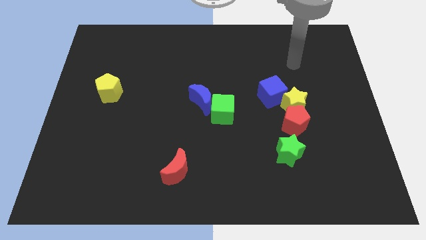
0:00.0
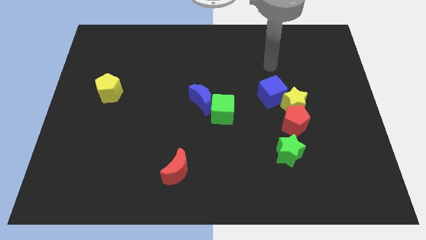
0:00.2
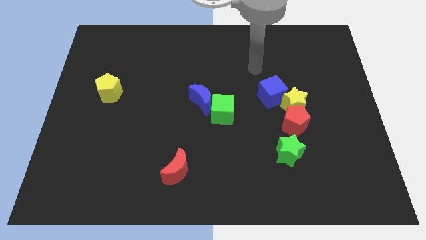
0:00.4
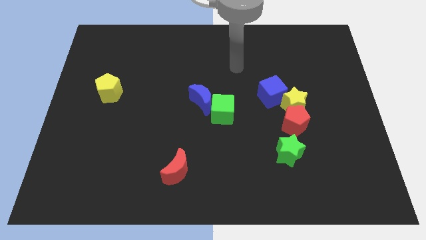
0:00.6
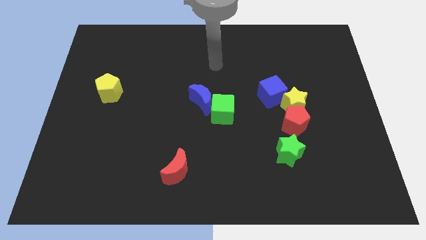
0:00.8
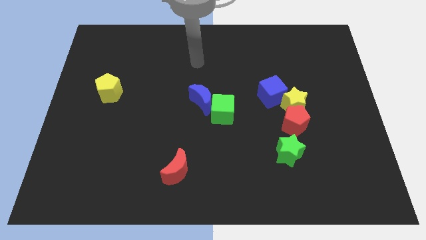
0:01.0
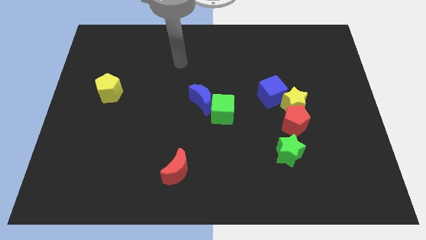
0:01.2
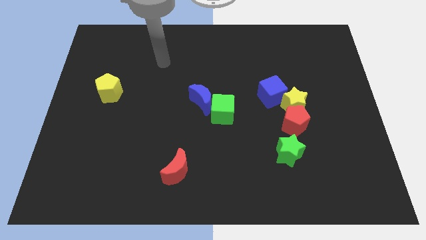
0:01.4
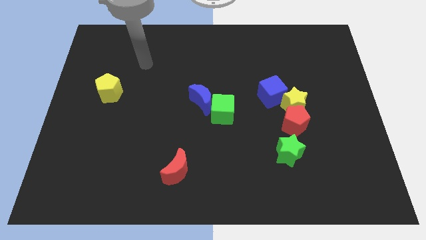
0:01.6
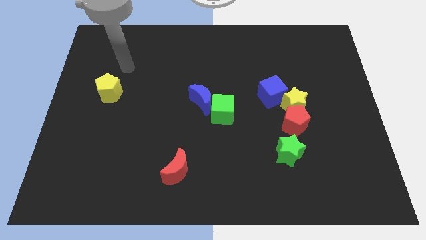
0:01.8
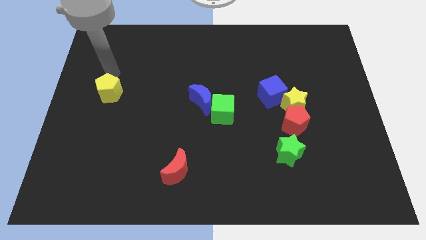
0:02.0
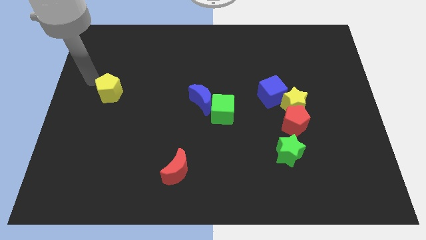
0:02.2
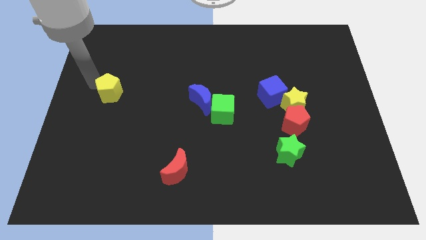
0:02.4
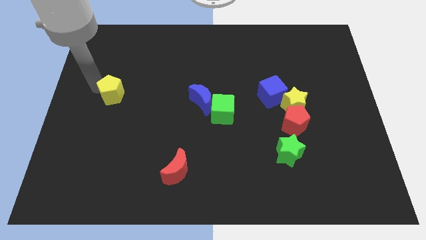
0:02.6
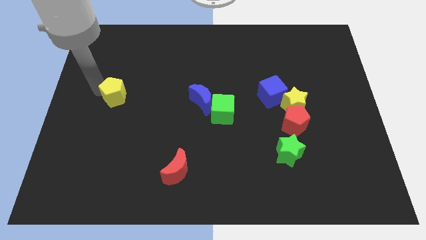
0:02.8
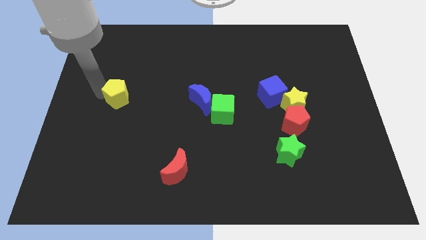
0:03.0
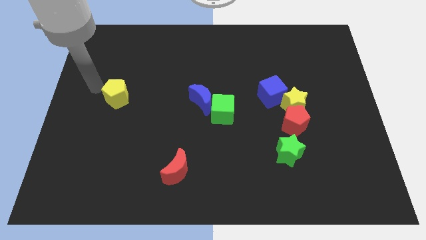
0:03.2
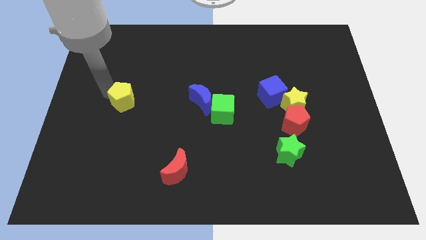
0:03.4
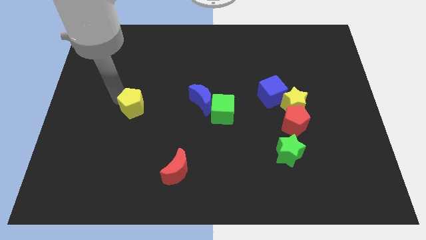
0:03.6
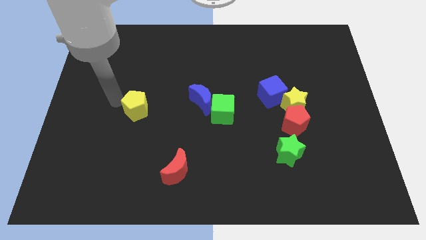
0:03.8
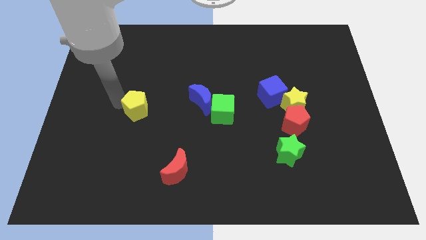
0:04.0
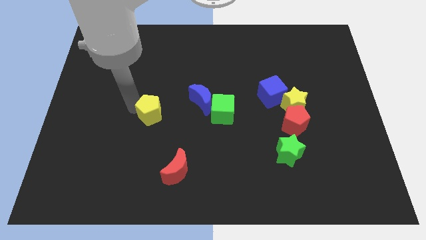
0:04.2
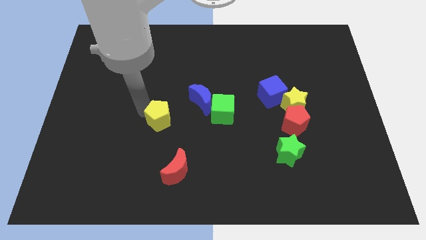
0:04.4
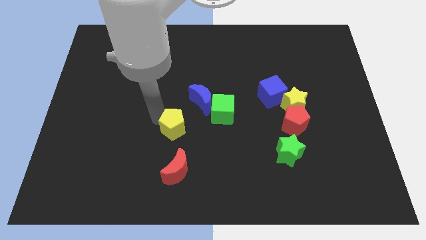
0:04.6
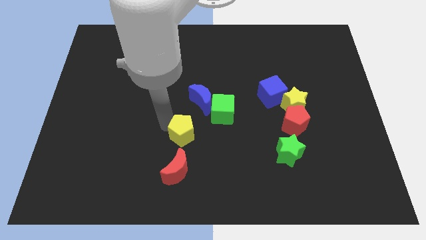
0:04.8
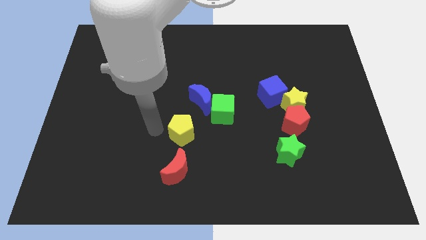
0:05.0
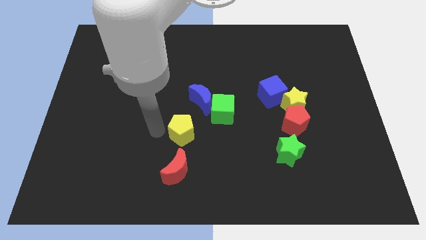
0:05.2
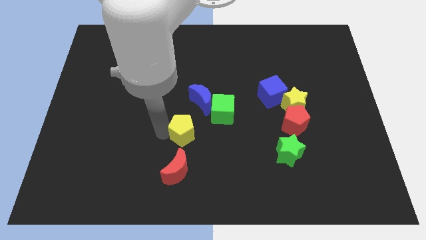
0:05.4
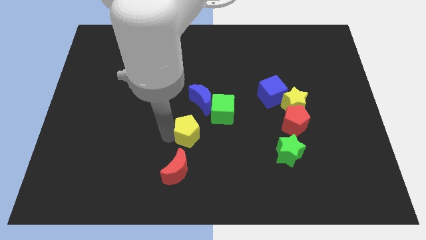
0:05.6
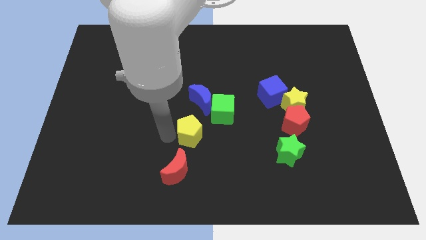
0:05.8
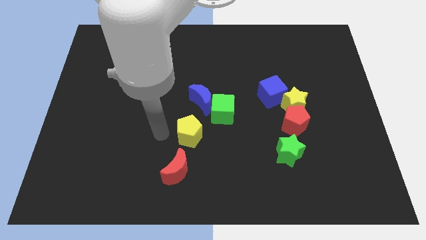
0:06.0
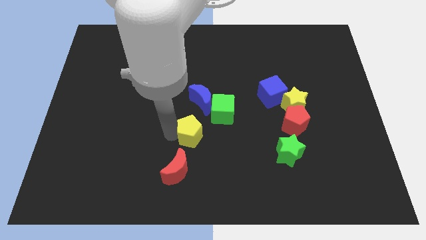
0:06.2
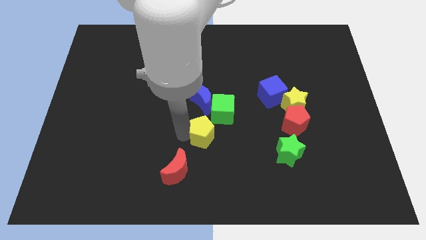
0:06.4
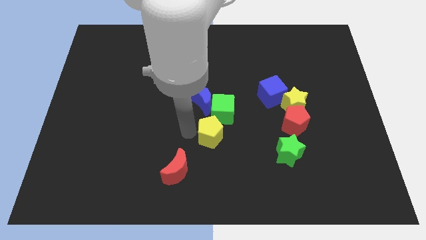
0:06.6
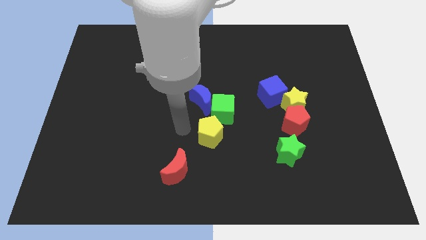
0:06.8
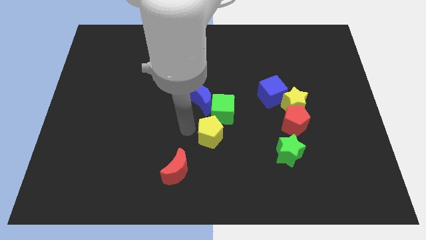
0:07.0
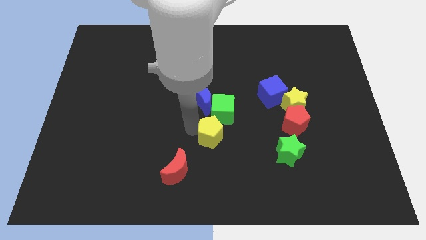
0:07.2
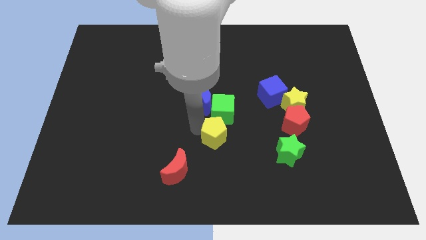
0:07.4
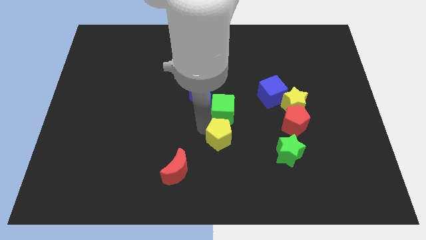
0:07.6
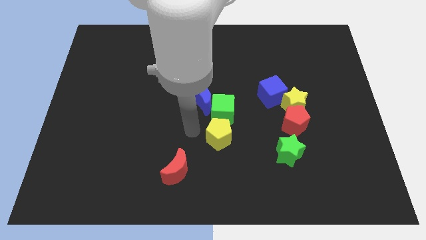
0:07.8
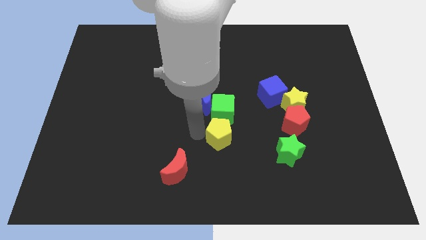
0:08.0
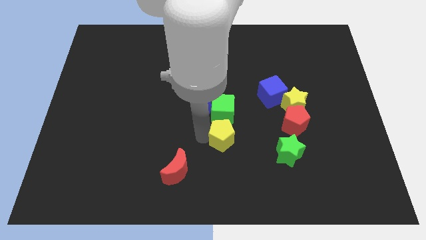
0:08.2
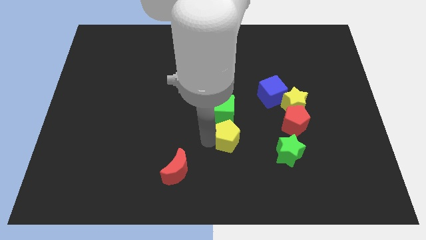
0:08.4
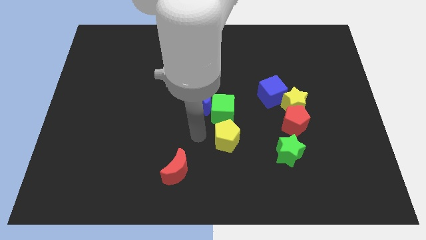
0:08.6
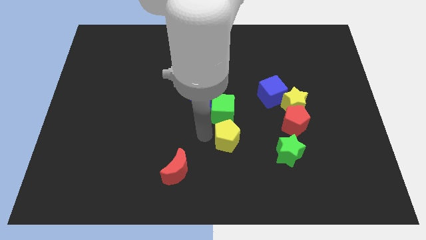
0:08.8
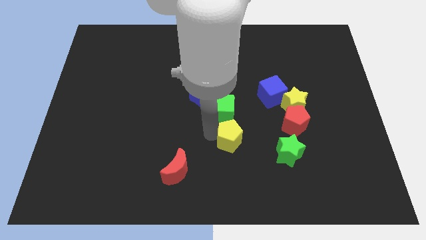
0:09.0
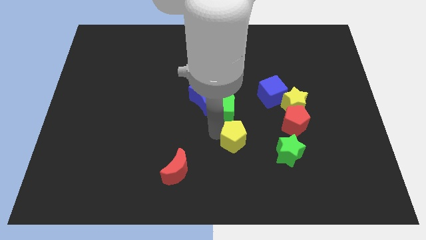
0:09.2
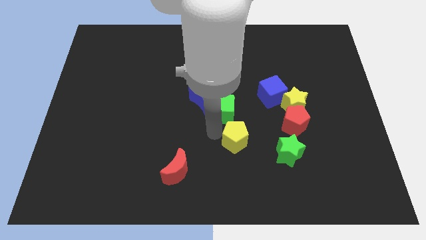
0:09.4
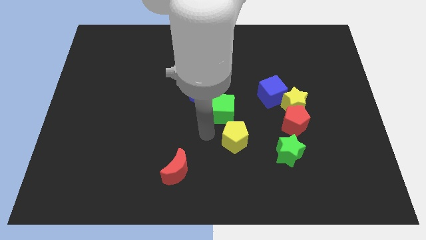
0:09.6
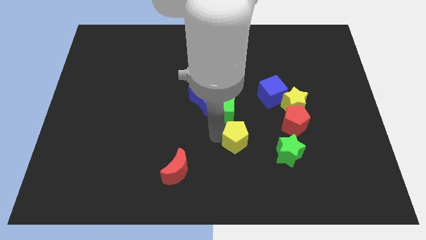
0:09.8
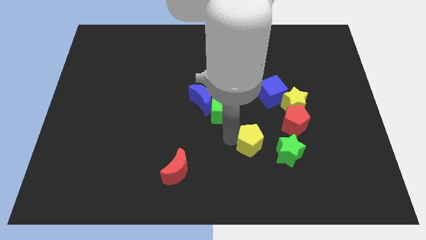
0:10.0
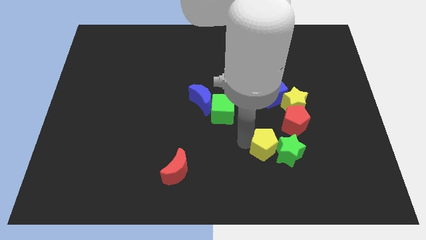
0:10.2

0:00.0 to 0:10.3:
push the yellow pentagon next to the green star

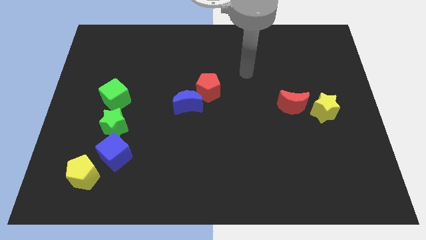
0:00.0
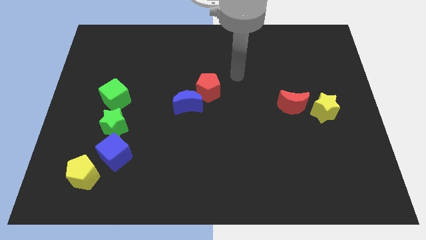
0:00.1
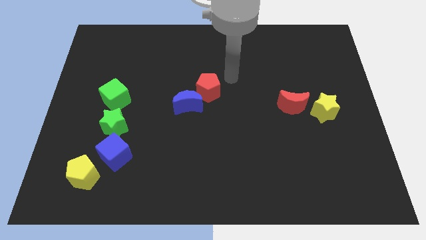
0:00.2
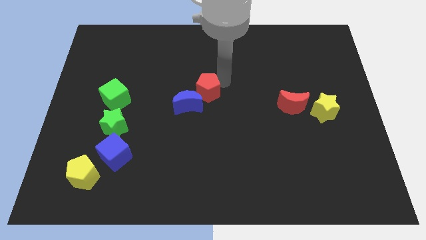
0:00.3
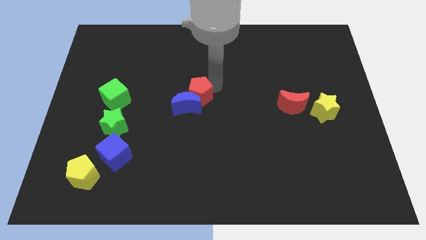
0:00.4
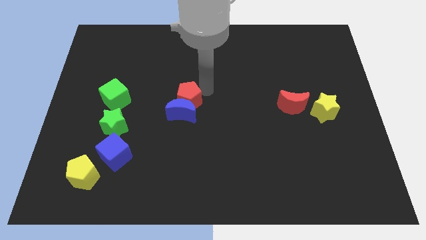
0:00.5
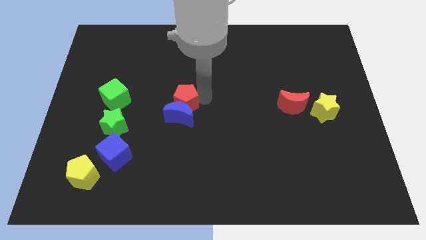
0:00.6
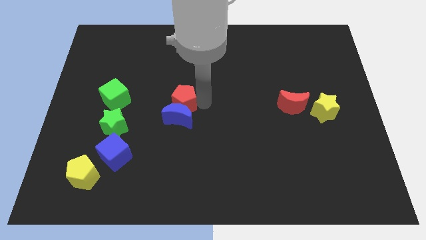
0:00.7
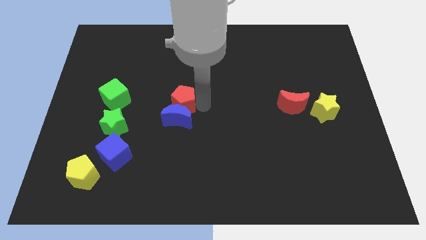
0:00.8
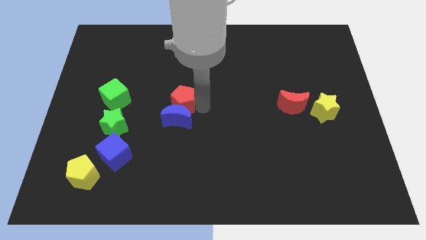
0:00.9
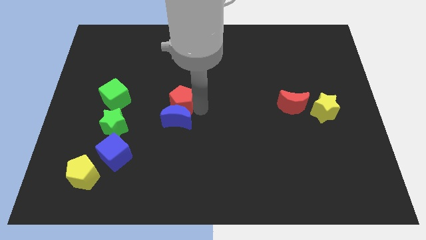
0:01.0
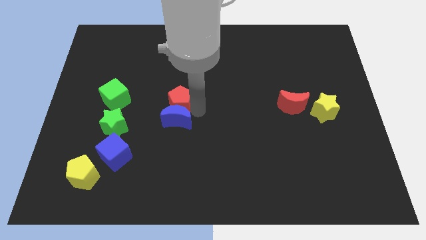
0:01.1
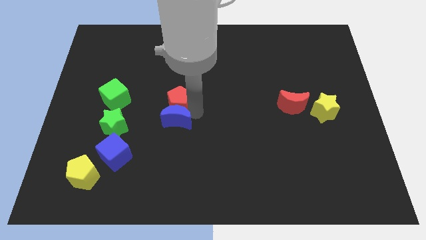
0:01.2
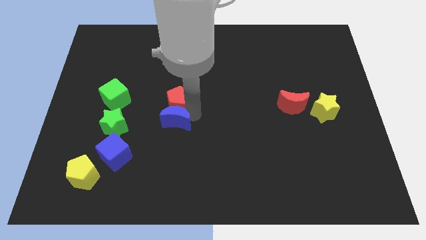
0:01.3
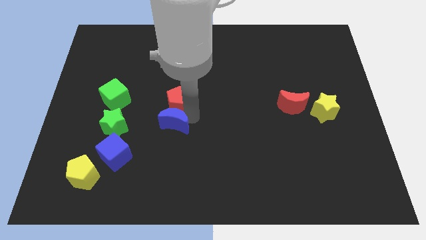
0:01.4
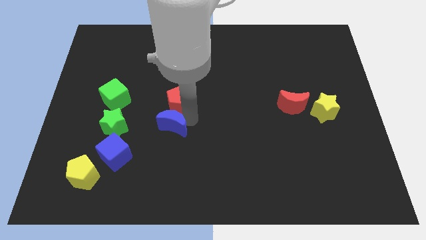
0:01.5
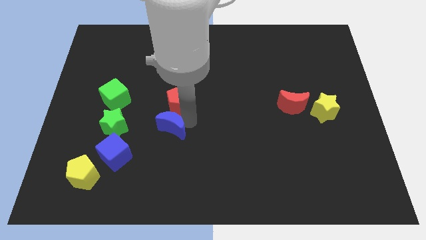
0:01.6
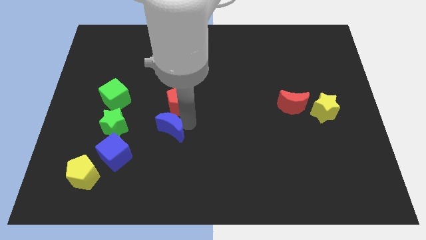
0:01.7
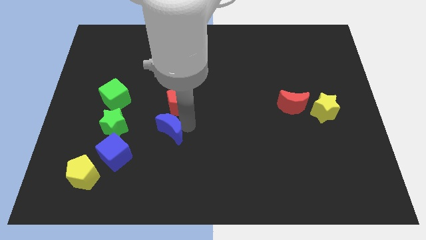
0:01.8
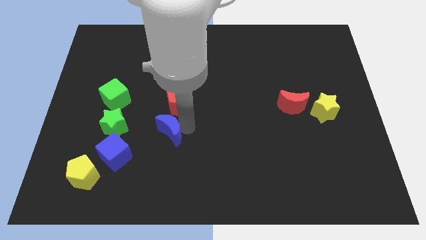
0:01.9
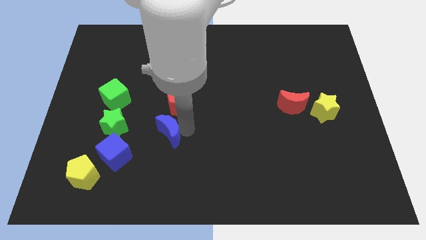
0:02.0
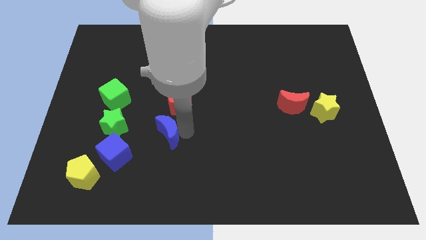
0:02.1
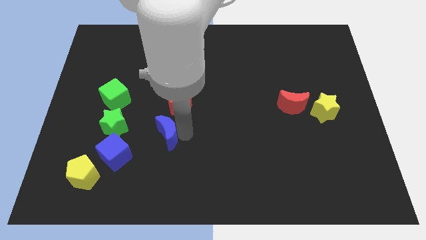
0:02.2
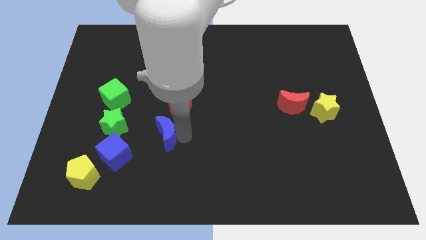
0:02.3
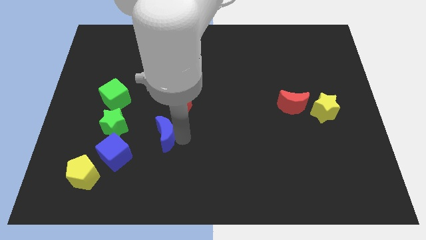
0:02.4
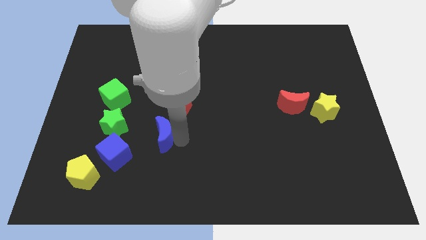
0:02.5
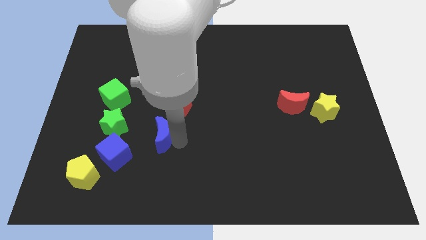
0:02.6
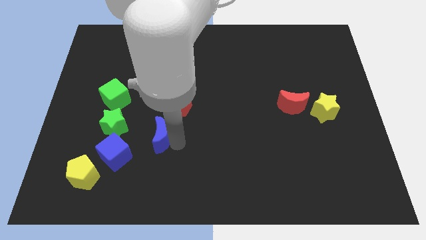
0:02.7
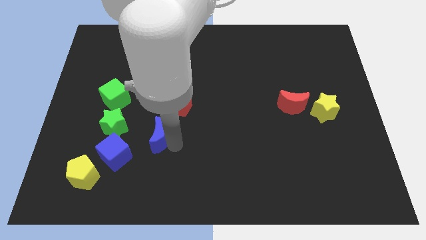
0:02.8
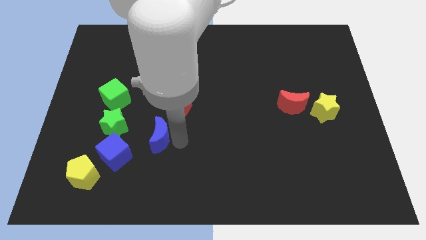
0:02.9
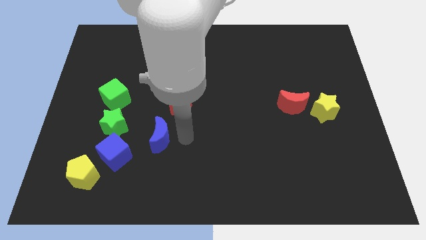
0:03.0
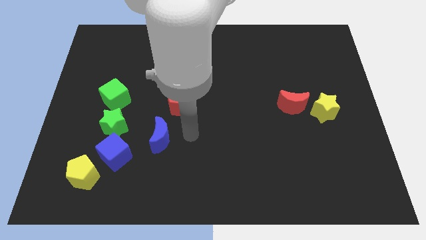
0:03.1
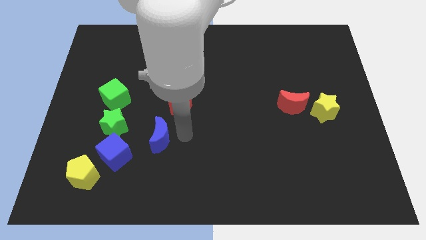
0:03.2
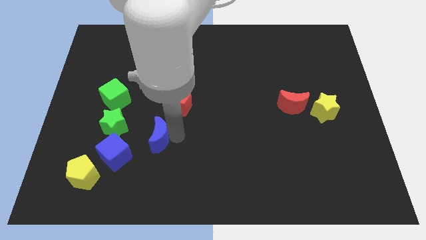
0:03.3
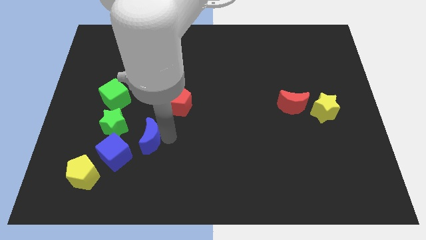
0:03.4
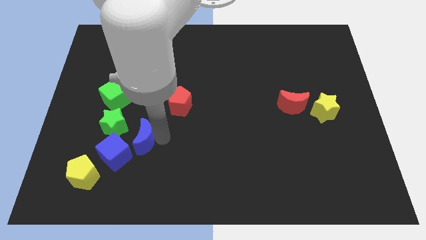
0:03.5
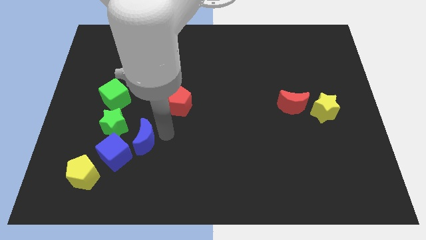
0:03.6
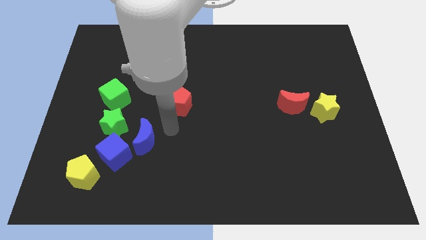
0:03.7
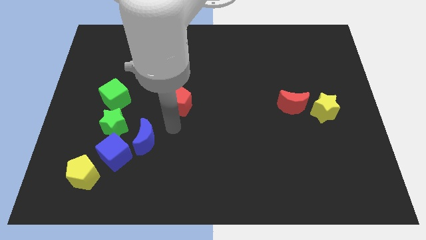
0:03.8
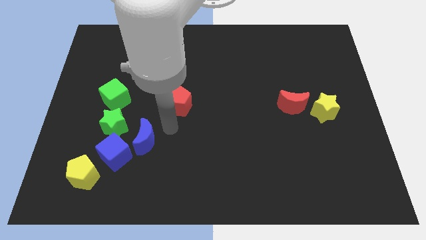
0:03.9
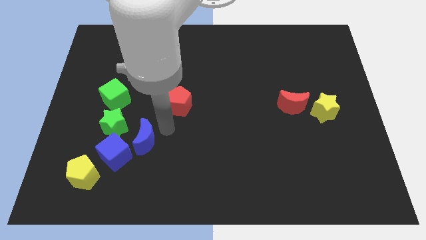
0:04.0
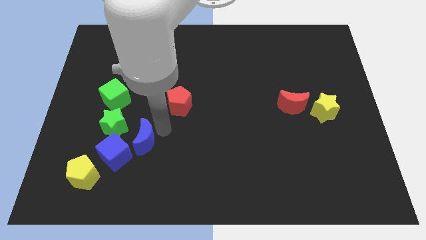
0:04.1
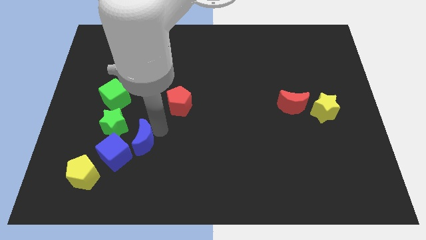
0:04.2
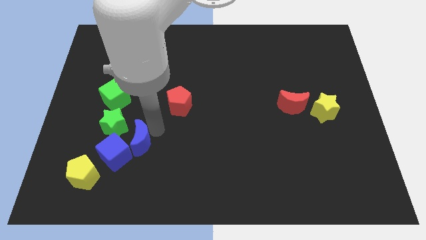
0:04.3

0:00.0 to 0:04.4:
slide the blue moon next to the blue cube
